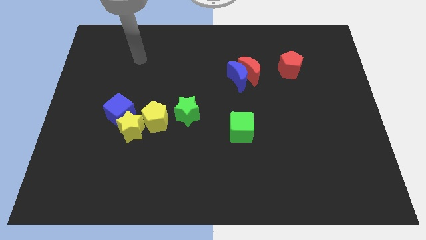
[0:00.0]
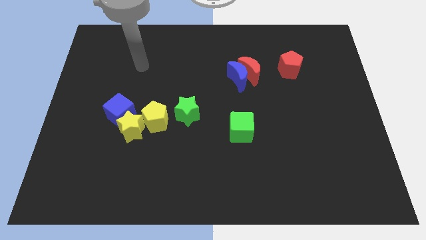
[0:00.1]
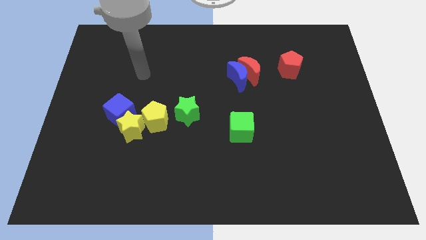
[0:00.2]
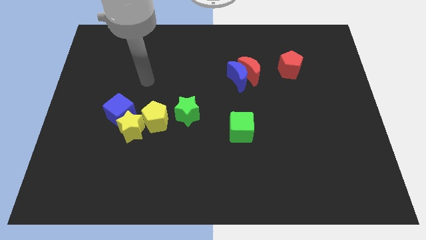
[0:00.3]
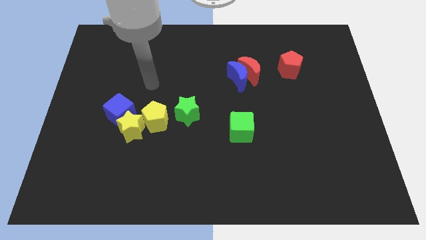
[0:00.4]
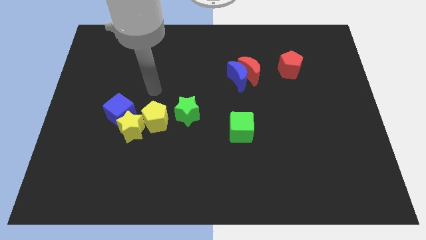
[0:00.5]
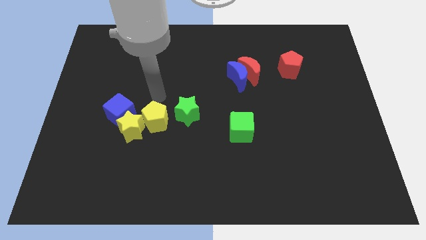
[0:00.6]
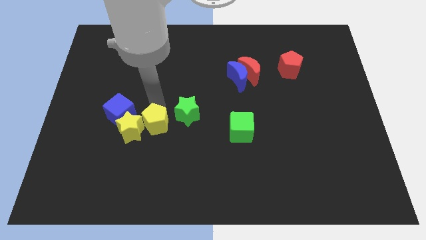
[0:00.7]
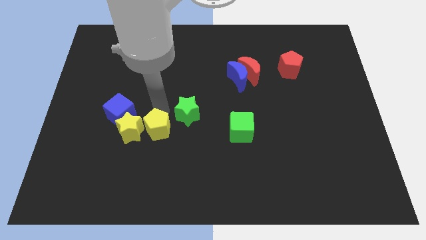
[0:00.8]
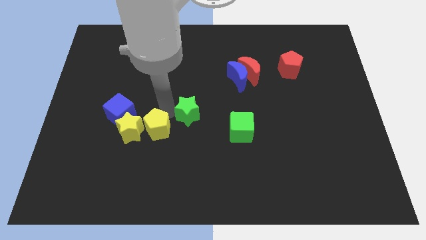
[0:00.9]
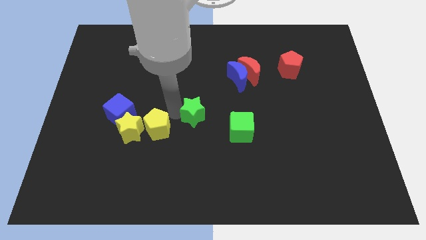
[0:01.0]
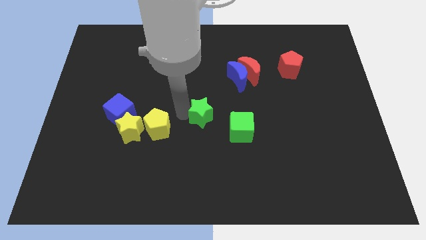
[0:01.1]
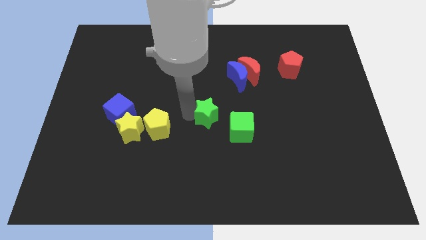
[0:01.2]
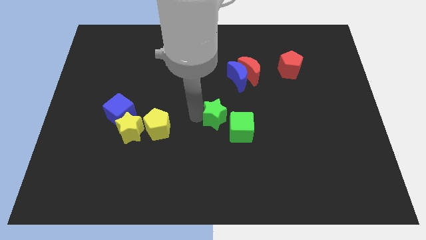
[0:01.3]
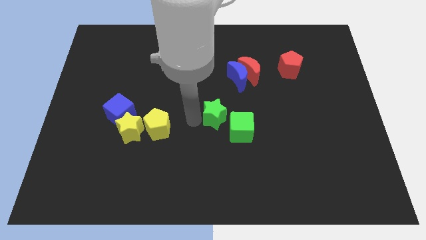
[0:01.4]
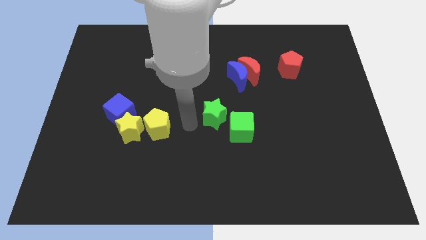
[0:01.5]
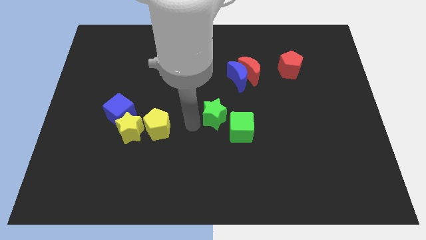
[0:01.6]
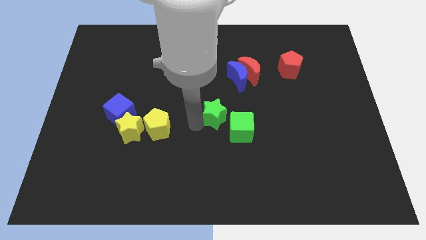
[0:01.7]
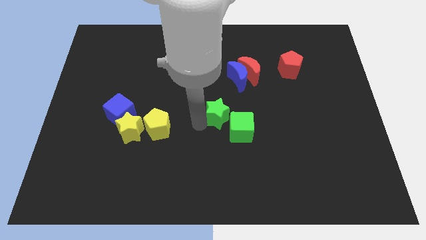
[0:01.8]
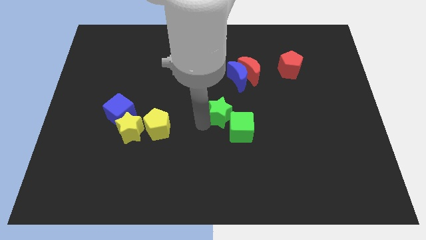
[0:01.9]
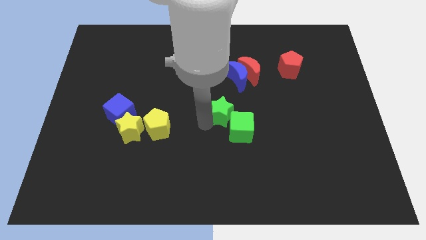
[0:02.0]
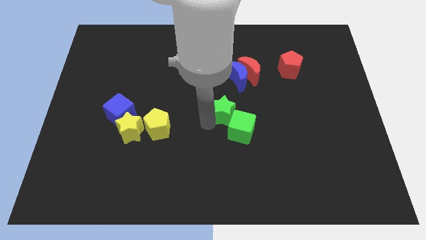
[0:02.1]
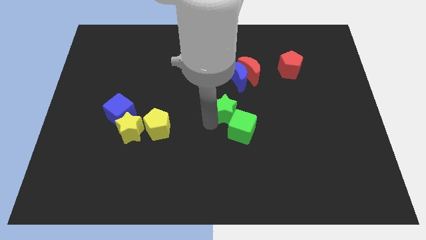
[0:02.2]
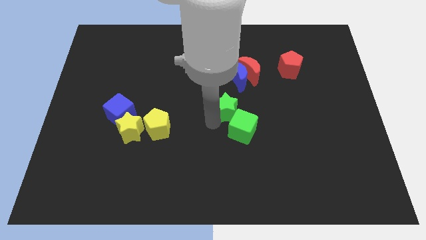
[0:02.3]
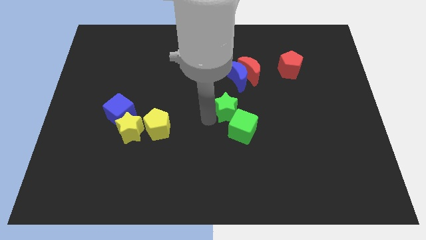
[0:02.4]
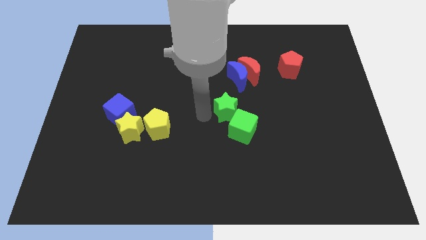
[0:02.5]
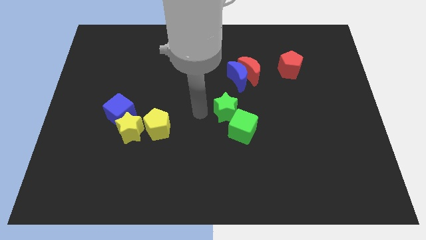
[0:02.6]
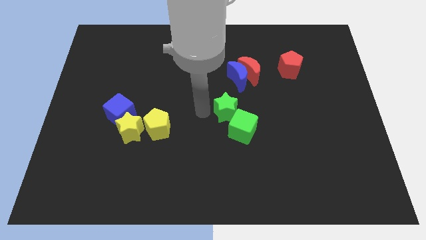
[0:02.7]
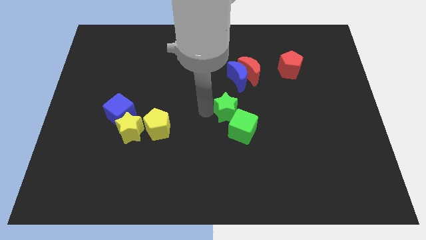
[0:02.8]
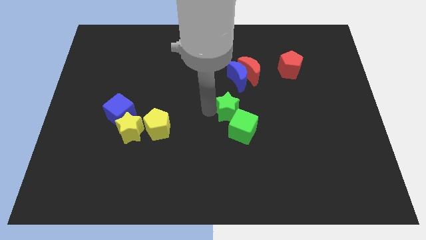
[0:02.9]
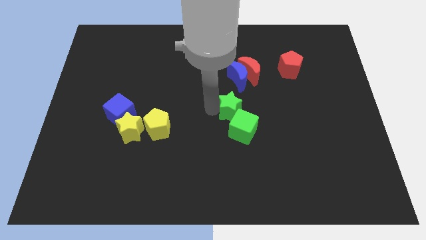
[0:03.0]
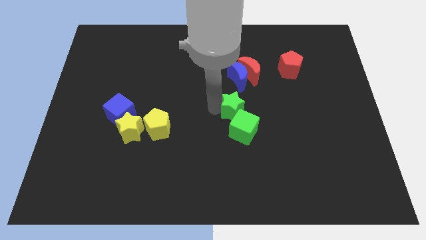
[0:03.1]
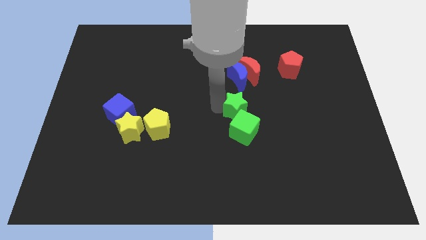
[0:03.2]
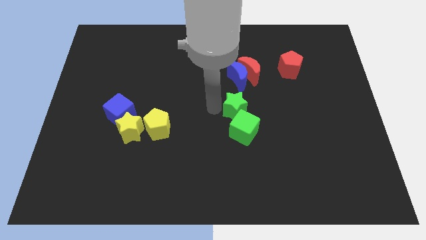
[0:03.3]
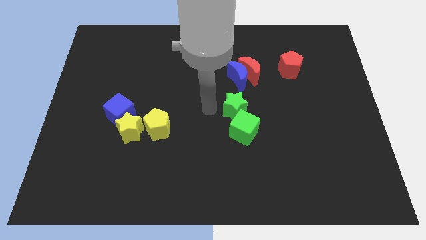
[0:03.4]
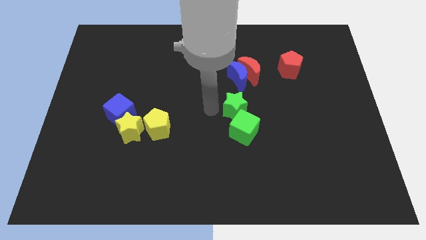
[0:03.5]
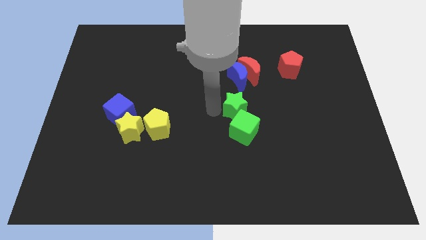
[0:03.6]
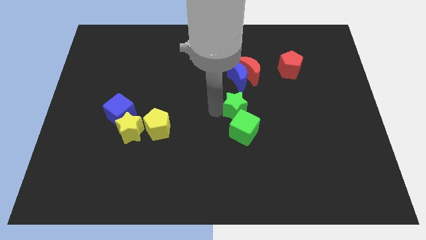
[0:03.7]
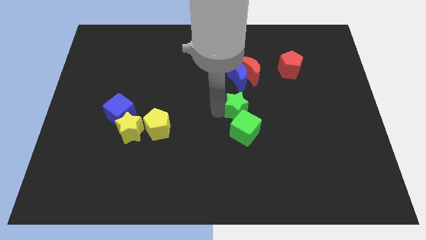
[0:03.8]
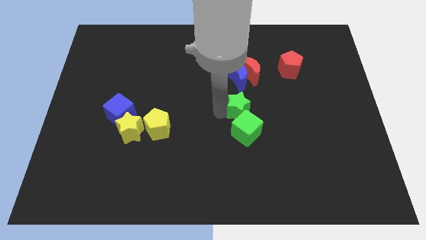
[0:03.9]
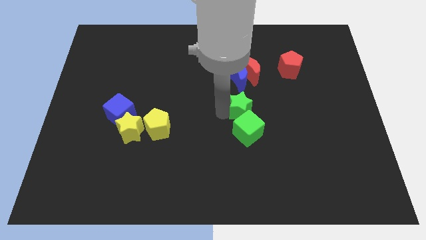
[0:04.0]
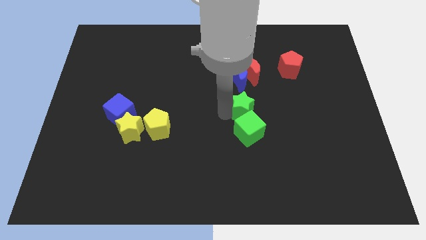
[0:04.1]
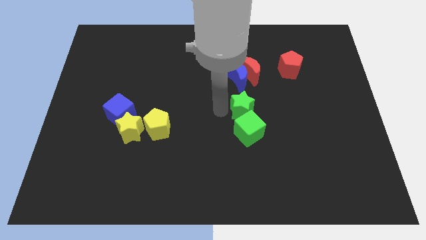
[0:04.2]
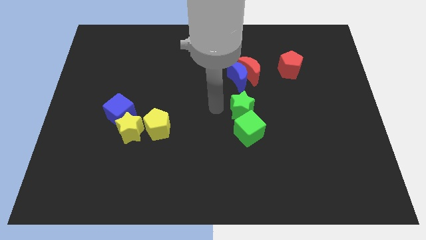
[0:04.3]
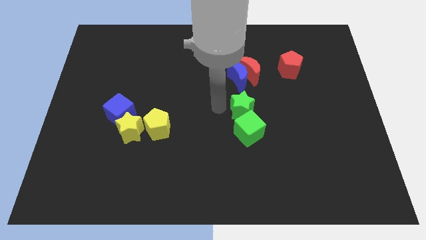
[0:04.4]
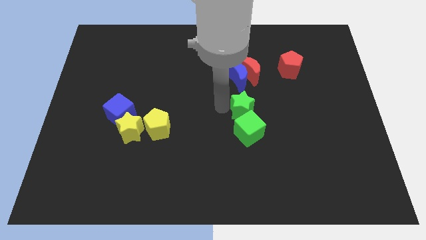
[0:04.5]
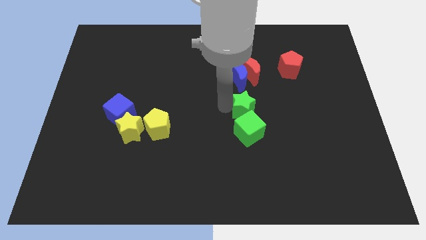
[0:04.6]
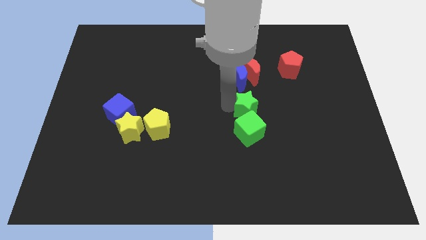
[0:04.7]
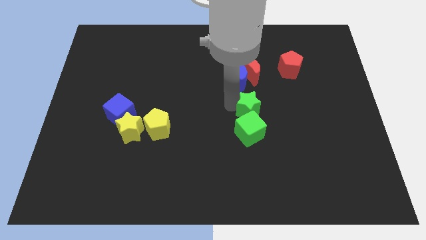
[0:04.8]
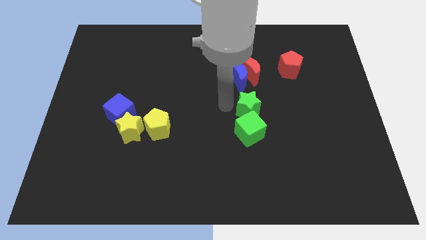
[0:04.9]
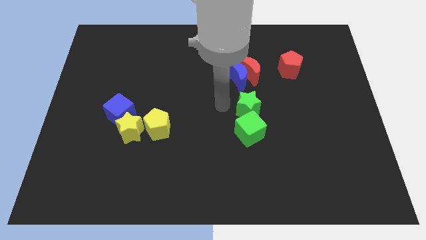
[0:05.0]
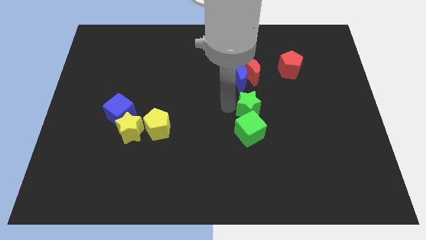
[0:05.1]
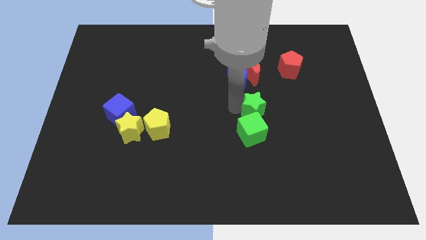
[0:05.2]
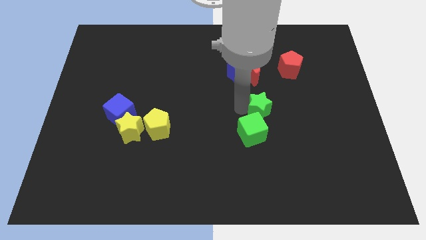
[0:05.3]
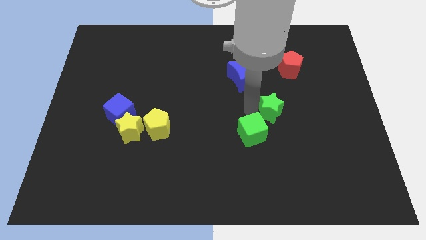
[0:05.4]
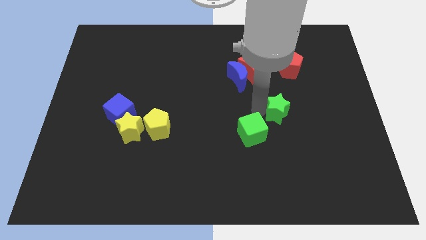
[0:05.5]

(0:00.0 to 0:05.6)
move the green star to the right

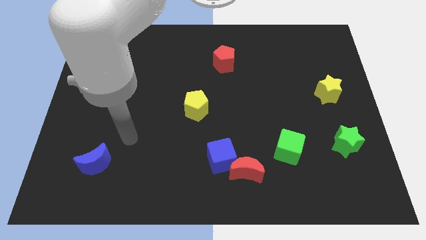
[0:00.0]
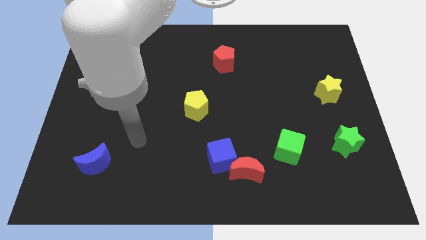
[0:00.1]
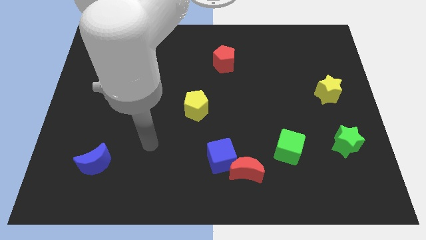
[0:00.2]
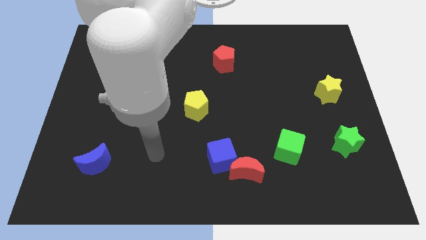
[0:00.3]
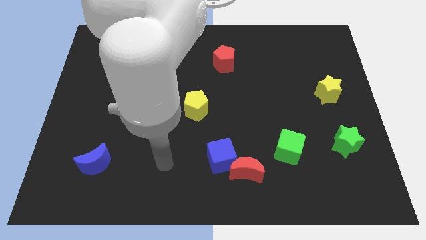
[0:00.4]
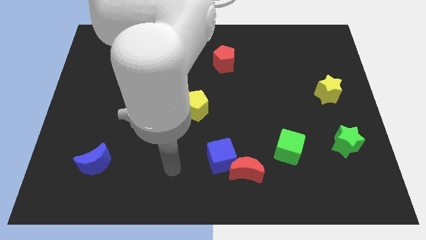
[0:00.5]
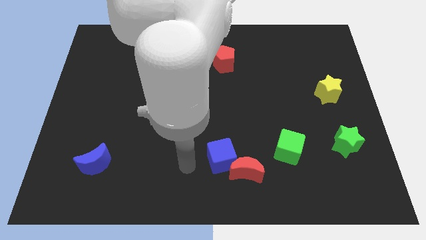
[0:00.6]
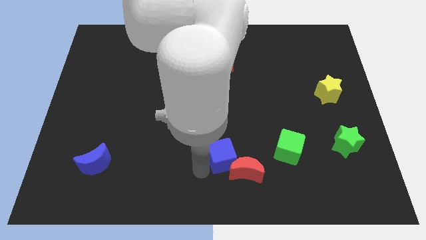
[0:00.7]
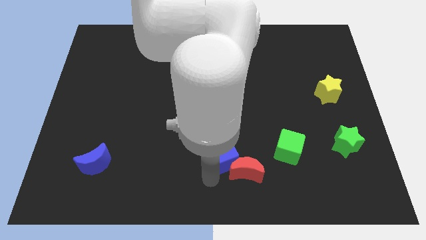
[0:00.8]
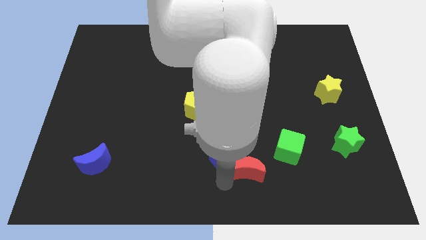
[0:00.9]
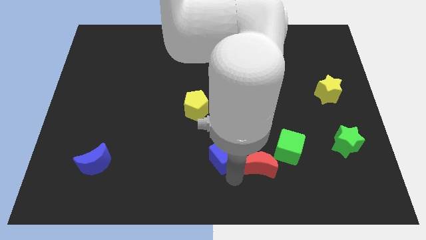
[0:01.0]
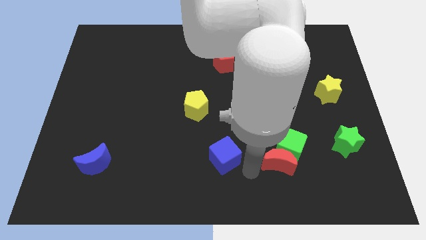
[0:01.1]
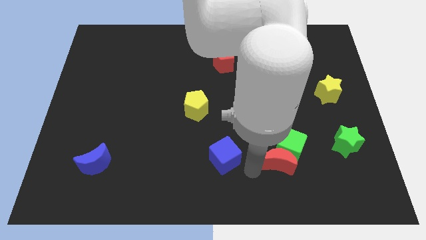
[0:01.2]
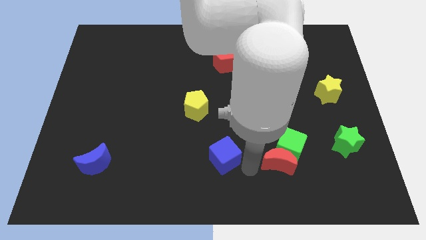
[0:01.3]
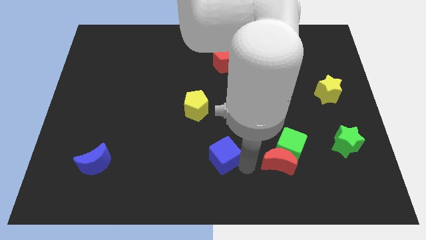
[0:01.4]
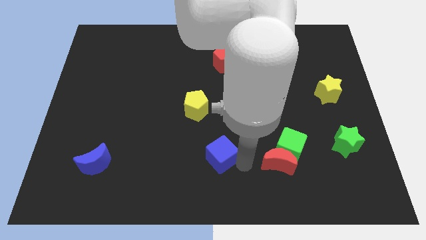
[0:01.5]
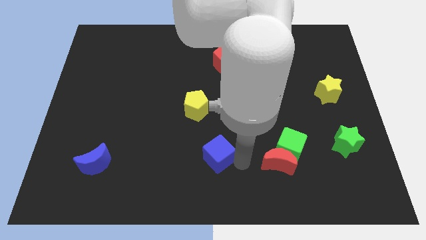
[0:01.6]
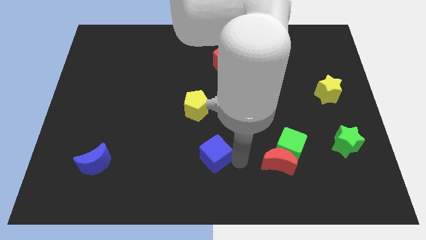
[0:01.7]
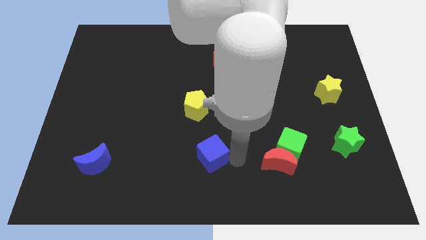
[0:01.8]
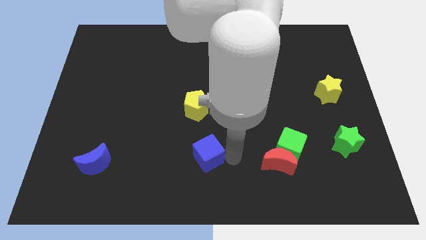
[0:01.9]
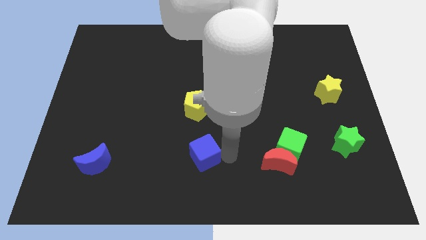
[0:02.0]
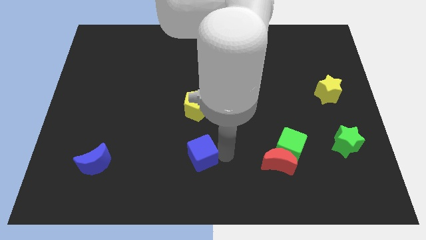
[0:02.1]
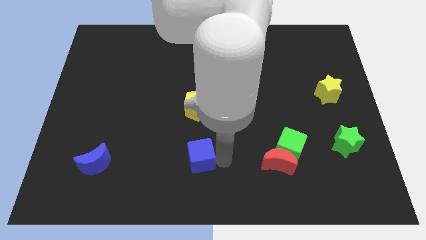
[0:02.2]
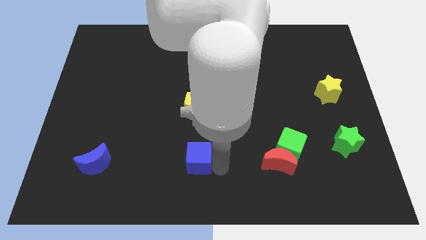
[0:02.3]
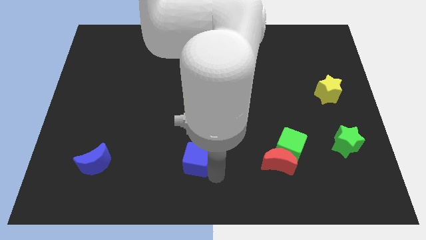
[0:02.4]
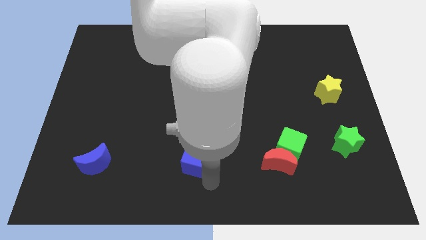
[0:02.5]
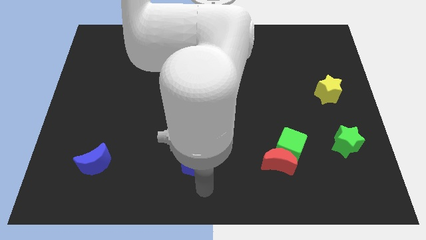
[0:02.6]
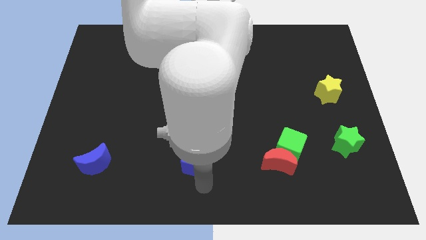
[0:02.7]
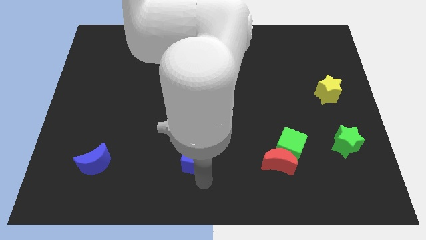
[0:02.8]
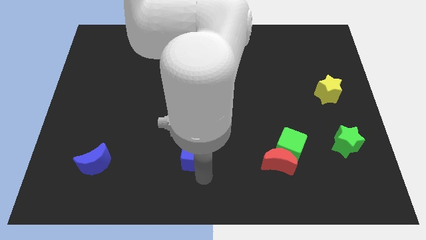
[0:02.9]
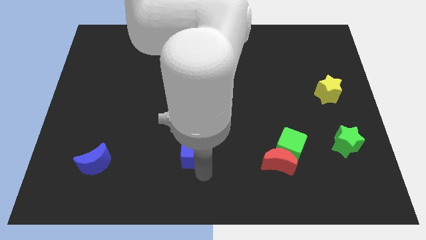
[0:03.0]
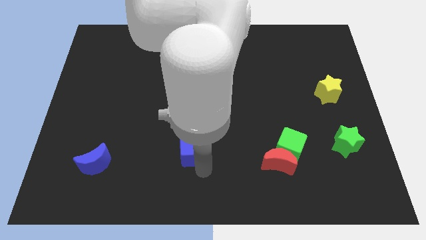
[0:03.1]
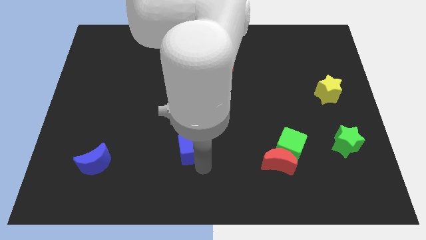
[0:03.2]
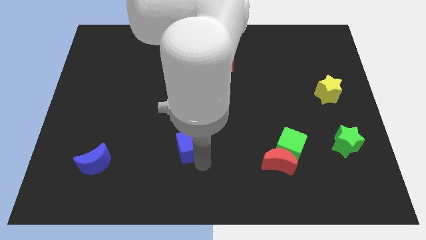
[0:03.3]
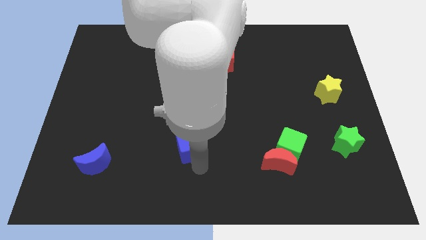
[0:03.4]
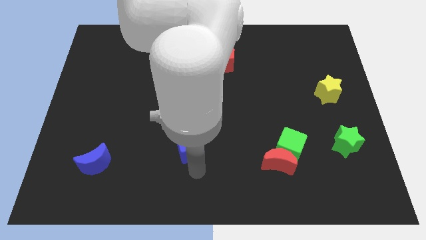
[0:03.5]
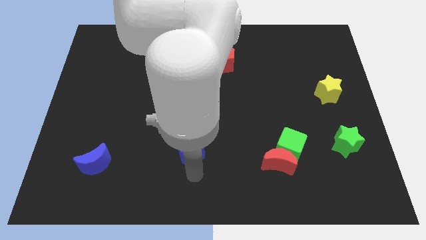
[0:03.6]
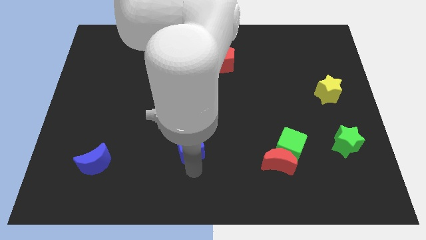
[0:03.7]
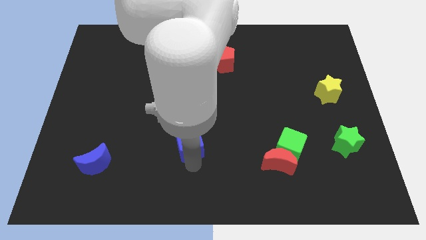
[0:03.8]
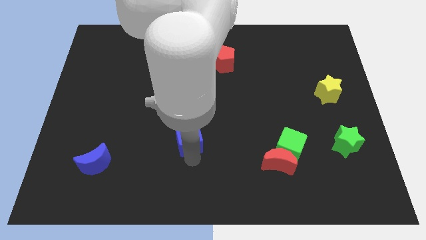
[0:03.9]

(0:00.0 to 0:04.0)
push the blue cube a little bit diagonally upwards and left
